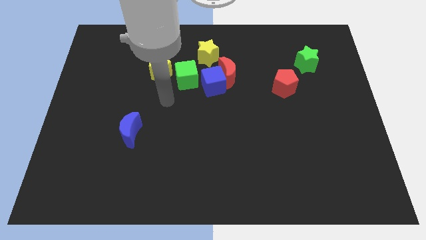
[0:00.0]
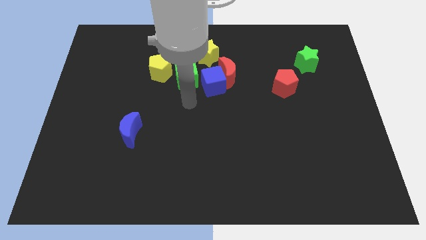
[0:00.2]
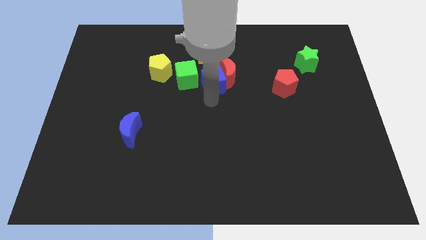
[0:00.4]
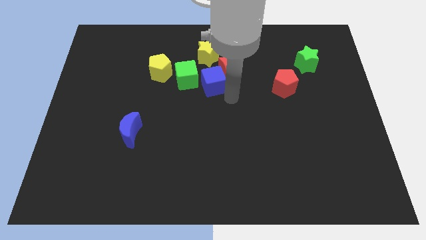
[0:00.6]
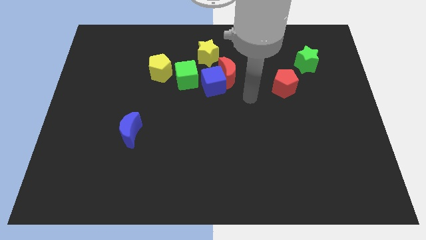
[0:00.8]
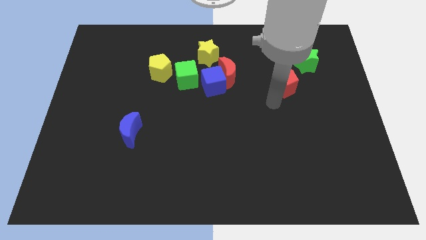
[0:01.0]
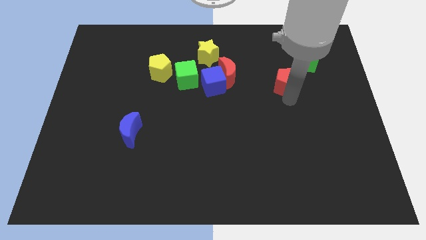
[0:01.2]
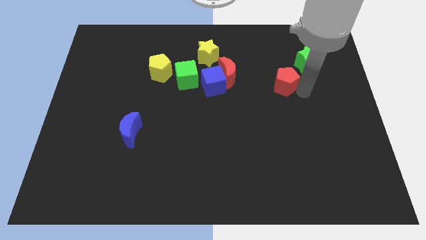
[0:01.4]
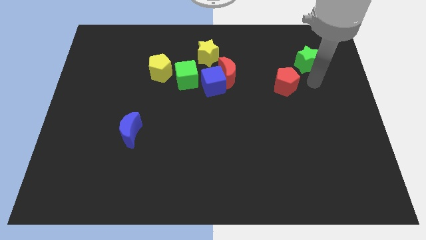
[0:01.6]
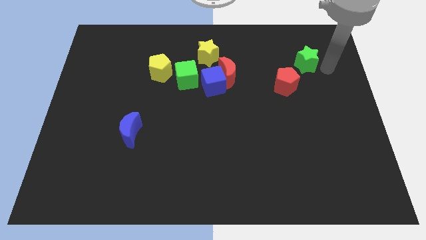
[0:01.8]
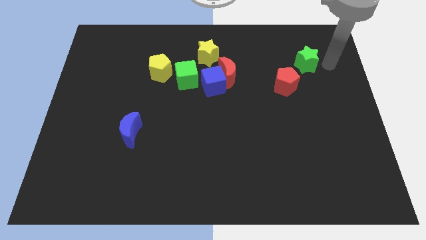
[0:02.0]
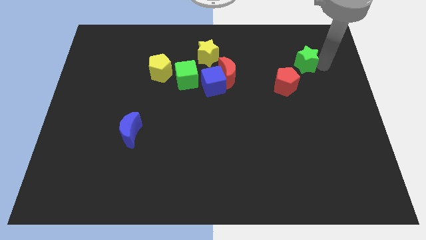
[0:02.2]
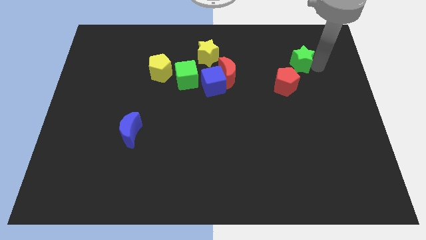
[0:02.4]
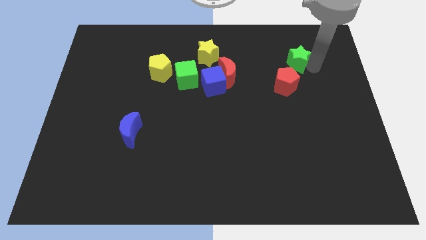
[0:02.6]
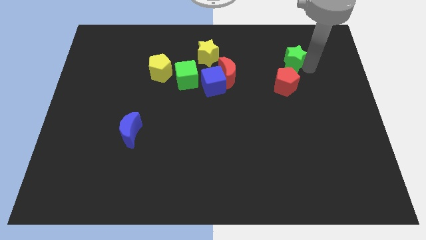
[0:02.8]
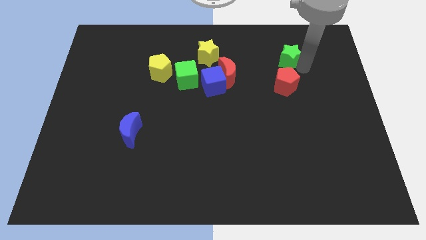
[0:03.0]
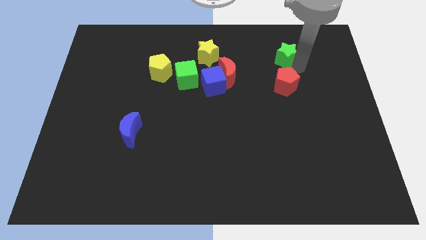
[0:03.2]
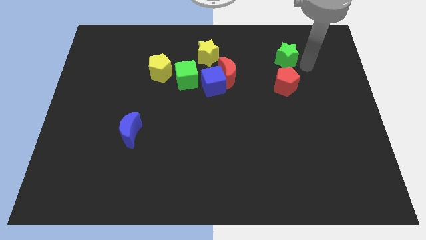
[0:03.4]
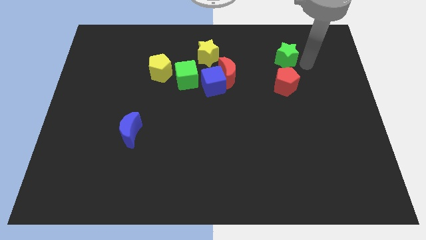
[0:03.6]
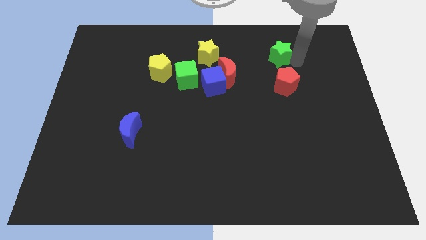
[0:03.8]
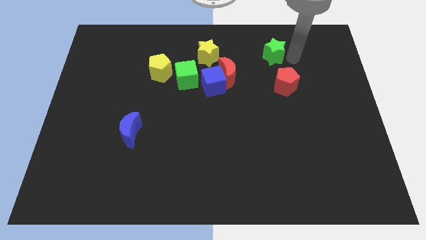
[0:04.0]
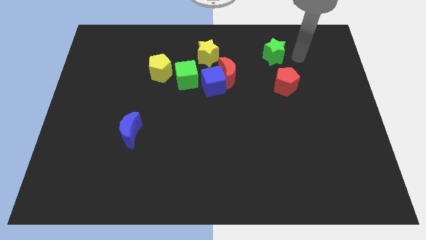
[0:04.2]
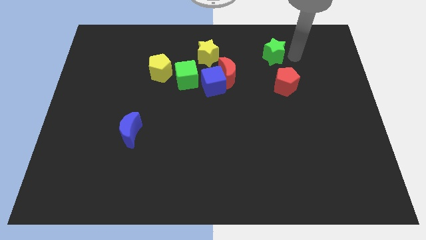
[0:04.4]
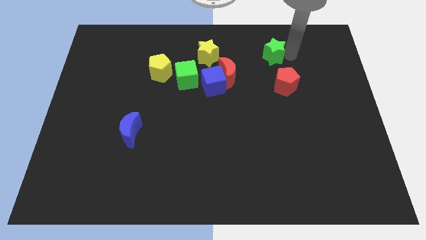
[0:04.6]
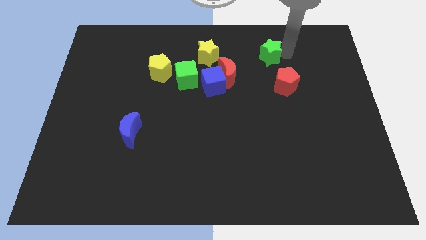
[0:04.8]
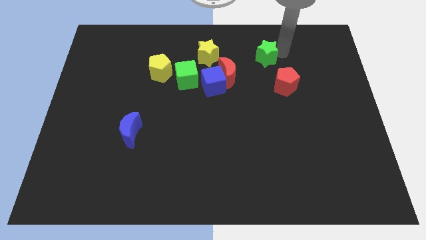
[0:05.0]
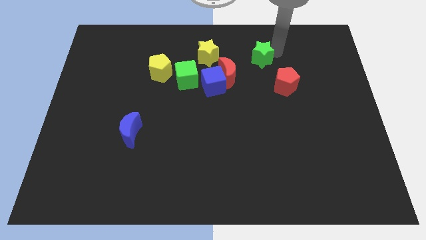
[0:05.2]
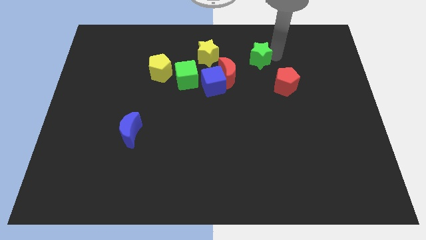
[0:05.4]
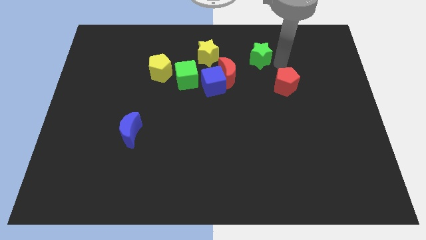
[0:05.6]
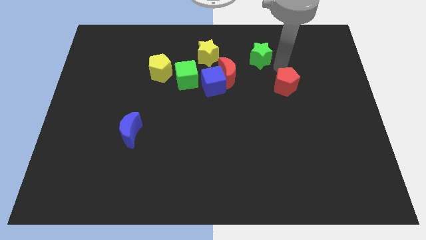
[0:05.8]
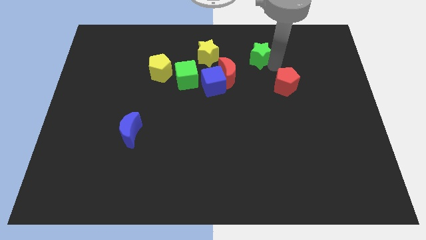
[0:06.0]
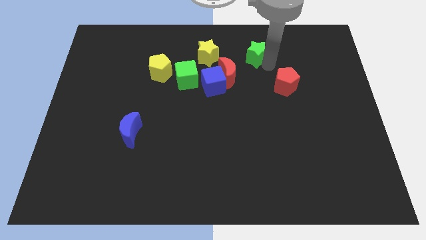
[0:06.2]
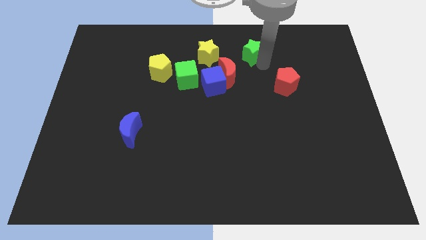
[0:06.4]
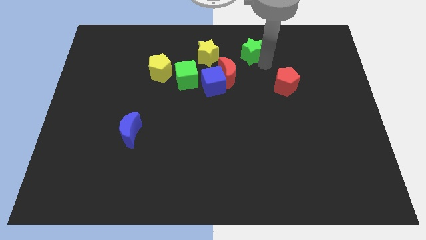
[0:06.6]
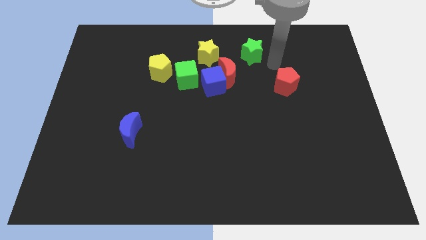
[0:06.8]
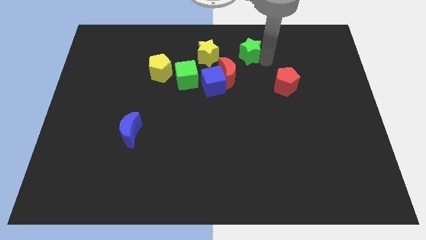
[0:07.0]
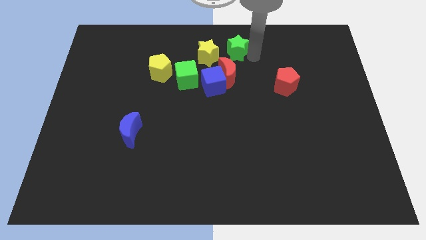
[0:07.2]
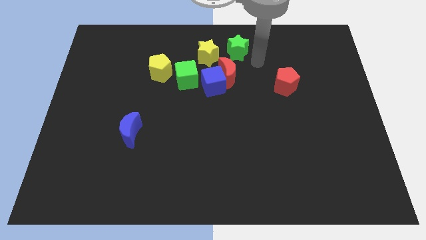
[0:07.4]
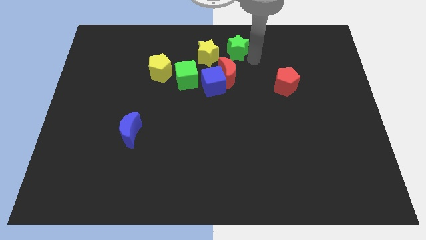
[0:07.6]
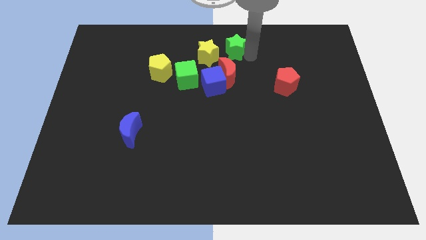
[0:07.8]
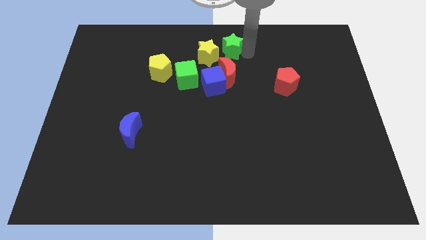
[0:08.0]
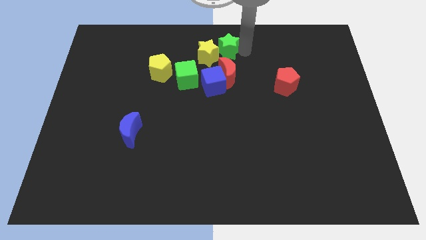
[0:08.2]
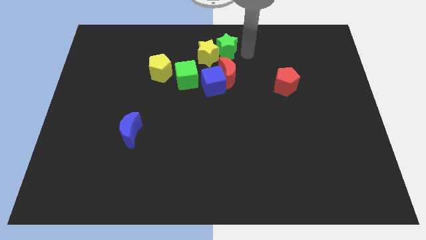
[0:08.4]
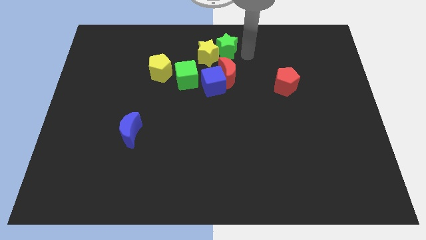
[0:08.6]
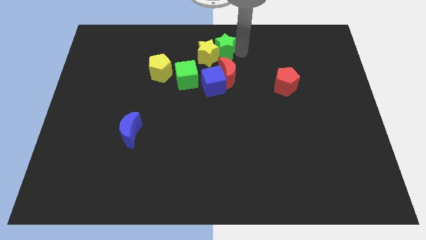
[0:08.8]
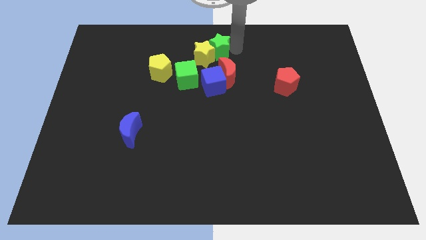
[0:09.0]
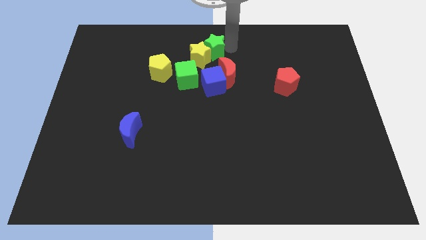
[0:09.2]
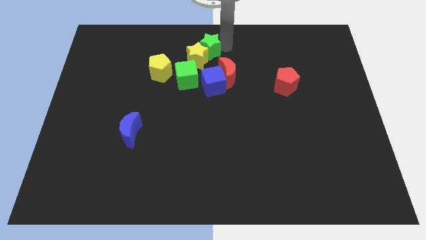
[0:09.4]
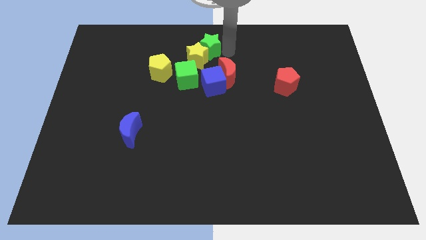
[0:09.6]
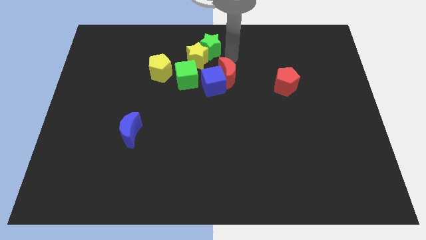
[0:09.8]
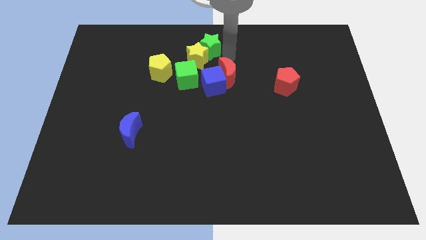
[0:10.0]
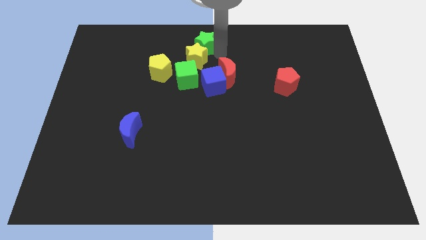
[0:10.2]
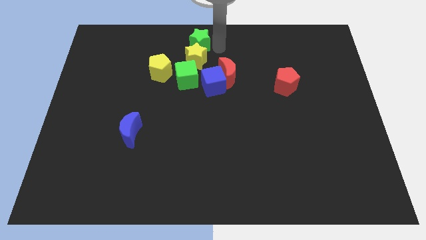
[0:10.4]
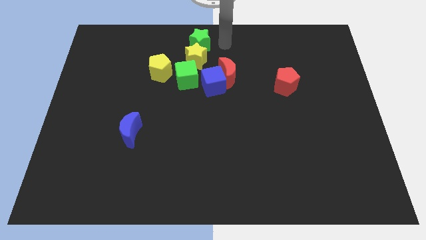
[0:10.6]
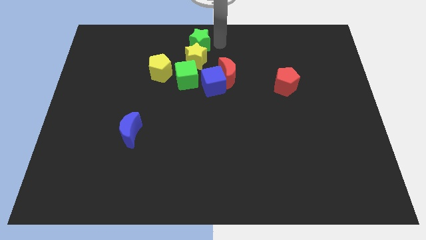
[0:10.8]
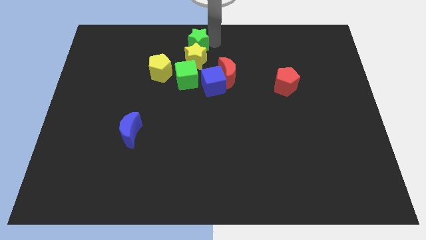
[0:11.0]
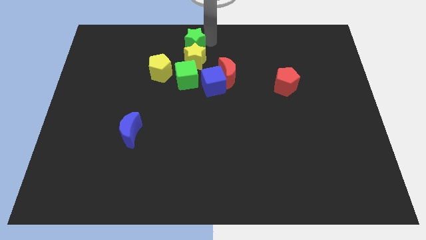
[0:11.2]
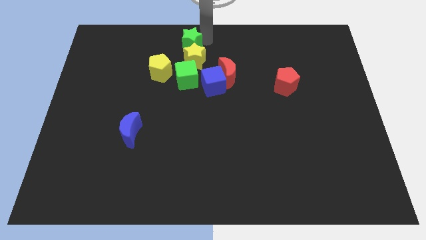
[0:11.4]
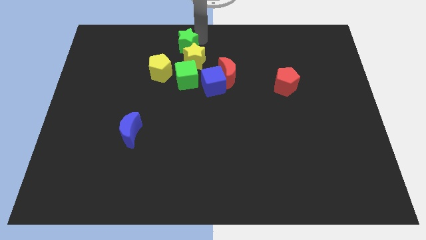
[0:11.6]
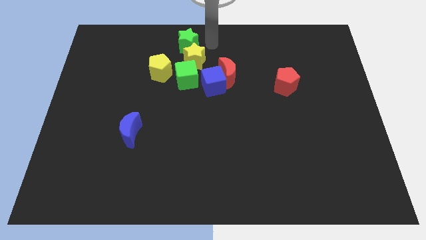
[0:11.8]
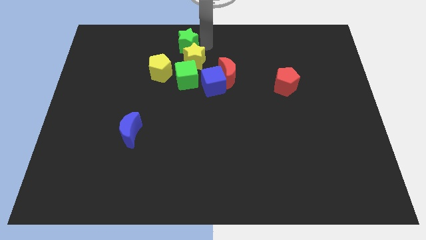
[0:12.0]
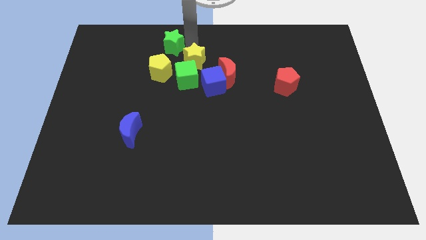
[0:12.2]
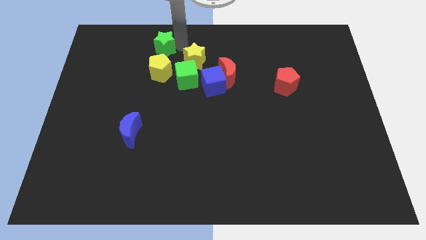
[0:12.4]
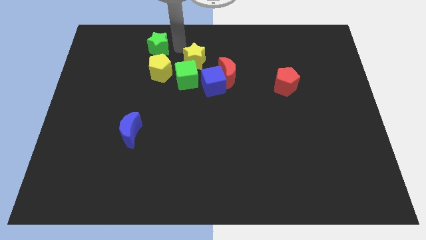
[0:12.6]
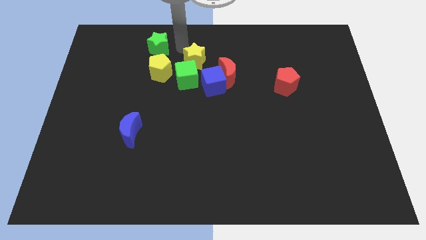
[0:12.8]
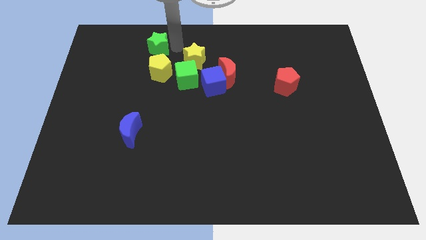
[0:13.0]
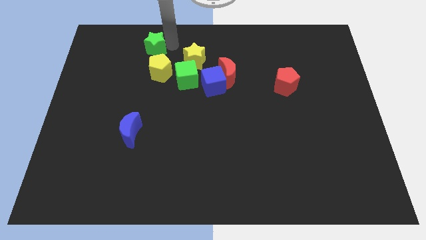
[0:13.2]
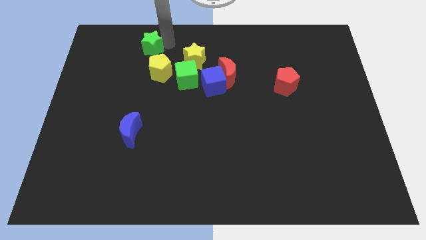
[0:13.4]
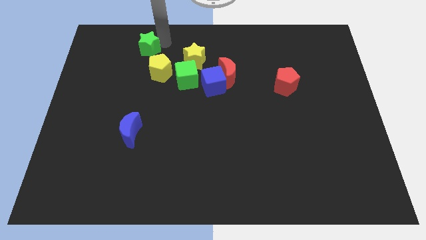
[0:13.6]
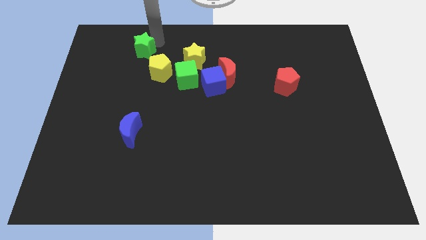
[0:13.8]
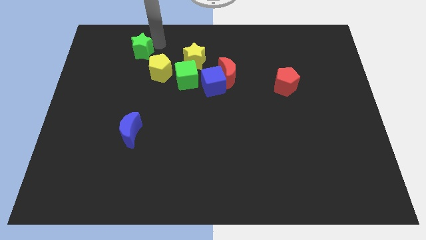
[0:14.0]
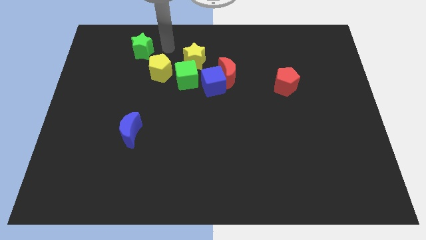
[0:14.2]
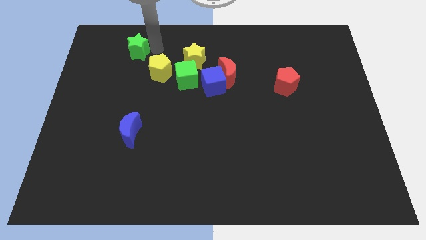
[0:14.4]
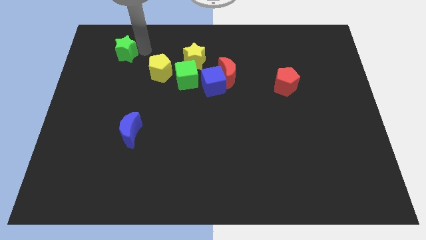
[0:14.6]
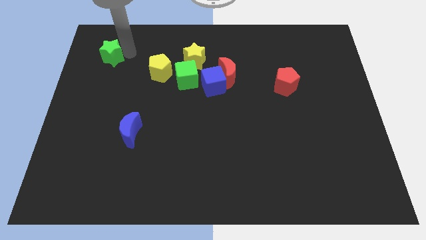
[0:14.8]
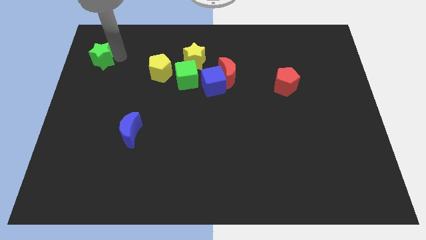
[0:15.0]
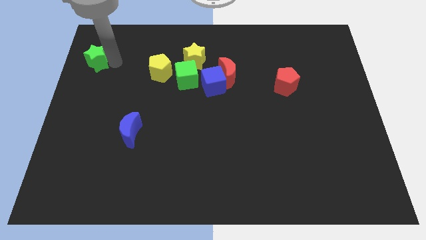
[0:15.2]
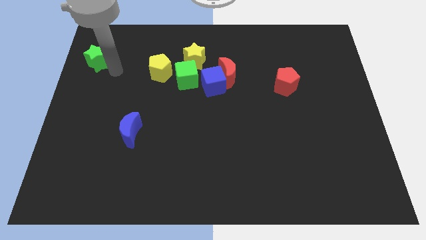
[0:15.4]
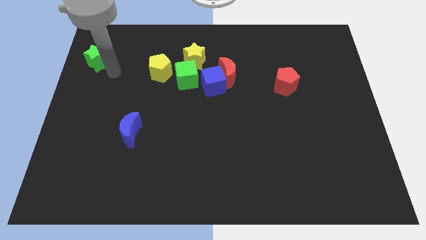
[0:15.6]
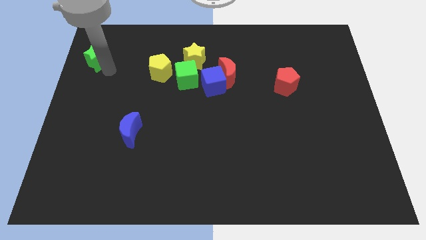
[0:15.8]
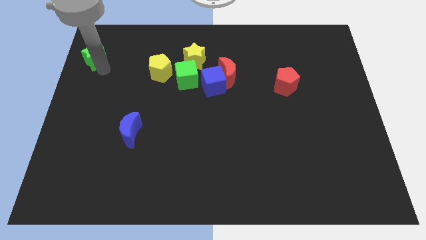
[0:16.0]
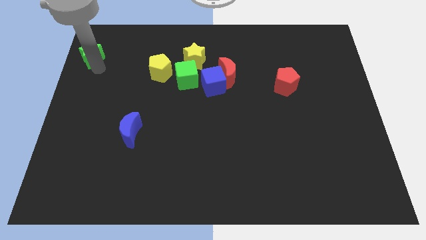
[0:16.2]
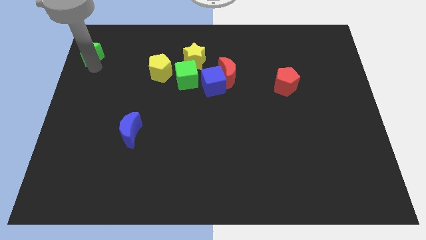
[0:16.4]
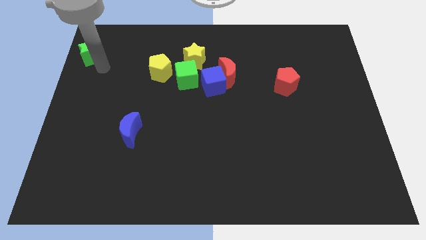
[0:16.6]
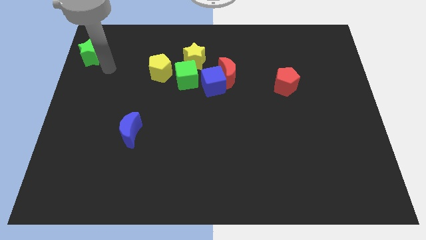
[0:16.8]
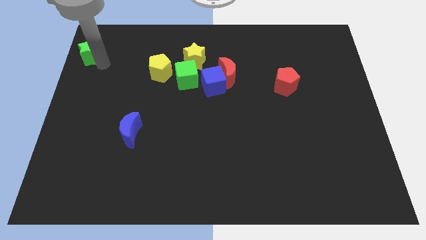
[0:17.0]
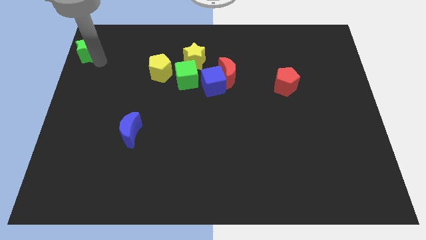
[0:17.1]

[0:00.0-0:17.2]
slide the green star to the top left
